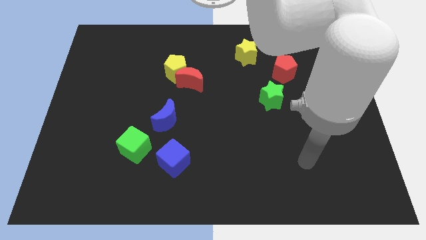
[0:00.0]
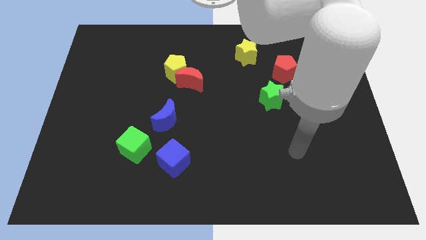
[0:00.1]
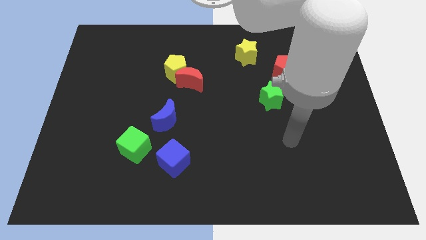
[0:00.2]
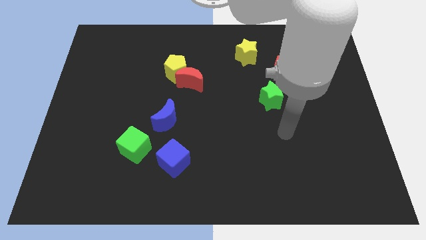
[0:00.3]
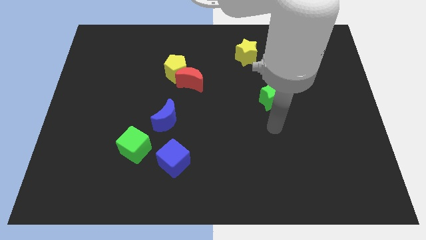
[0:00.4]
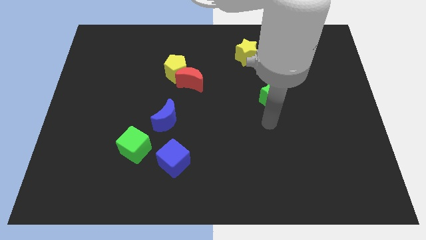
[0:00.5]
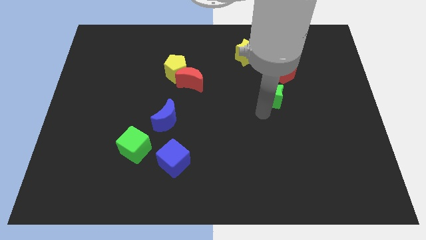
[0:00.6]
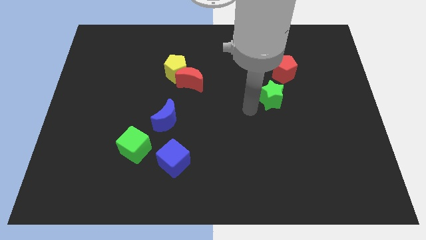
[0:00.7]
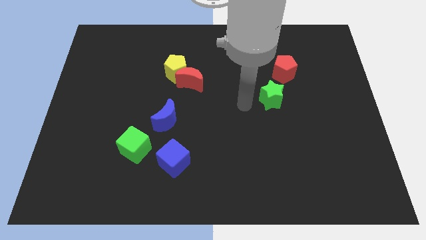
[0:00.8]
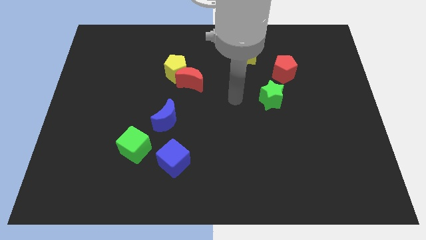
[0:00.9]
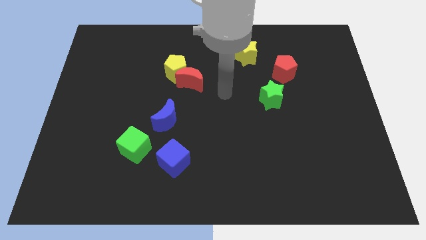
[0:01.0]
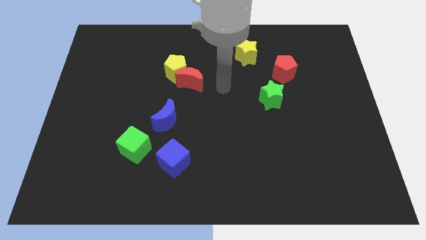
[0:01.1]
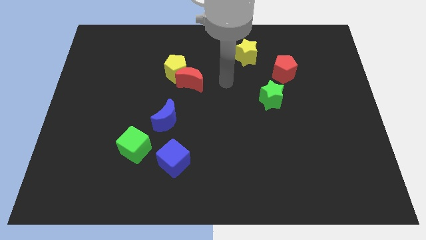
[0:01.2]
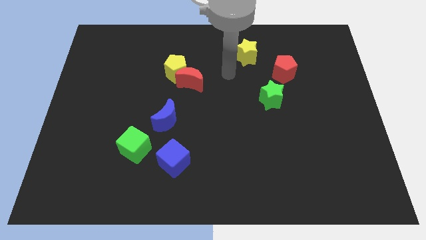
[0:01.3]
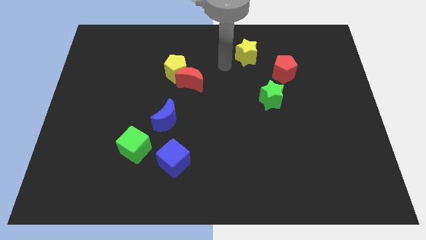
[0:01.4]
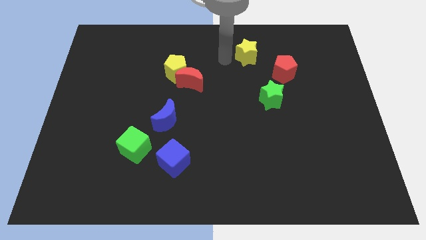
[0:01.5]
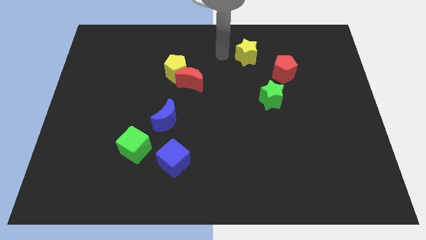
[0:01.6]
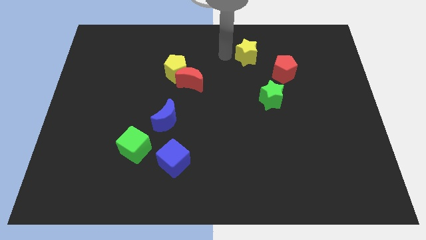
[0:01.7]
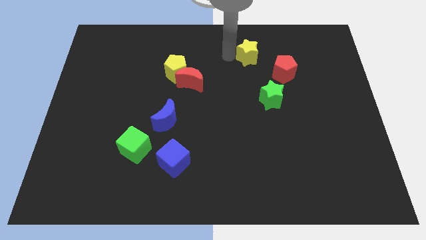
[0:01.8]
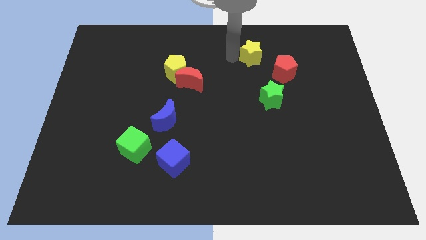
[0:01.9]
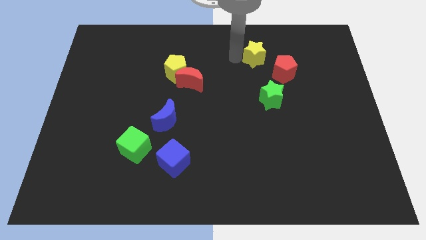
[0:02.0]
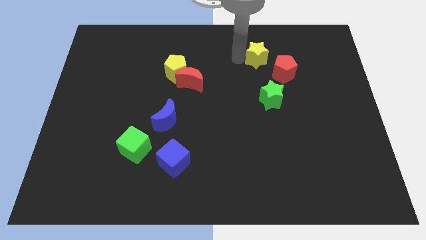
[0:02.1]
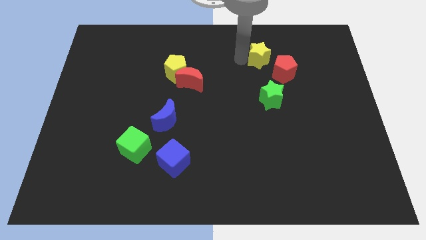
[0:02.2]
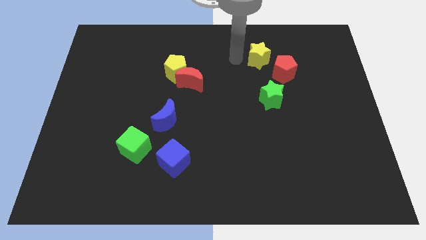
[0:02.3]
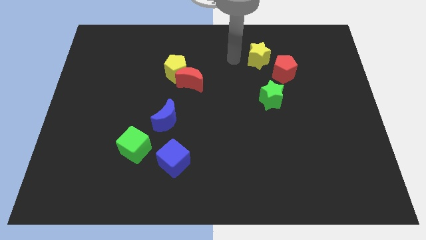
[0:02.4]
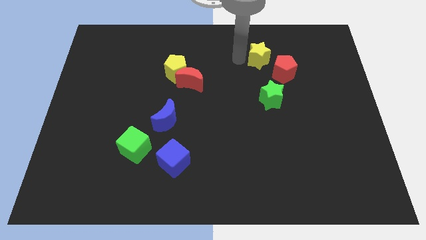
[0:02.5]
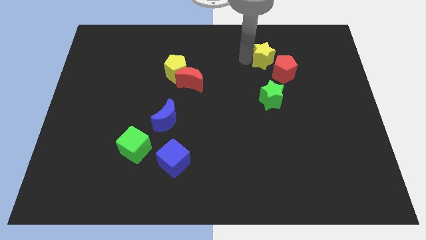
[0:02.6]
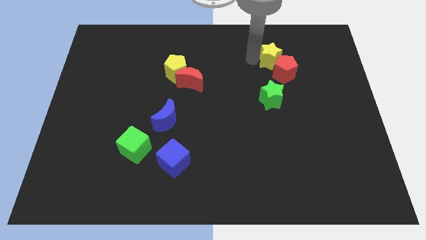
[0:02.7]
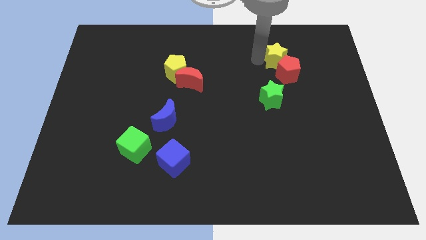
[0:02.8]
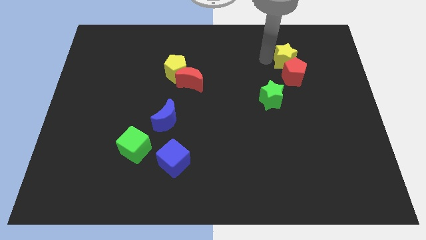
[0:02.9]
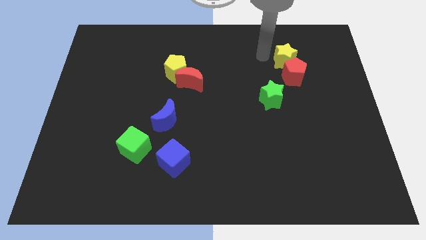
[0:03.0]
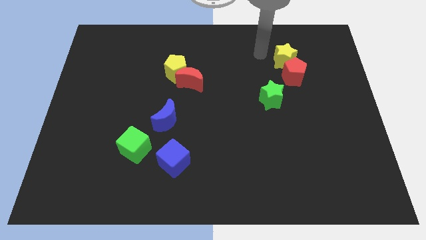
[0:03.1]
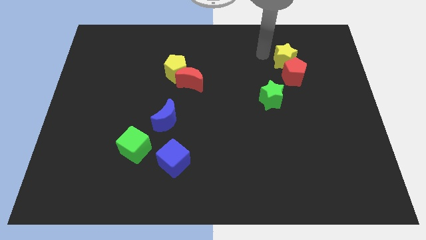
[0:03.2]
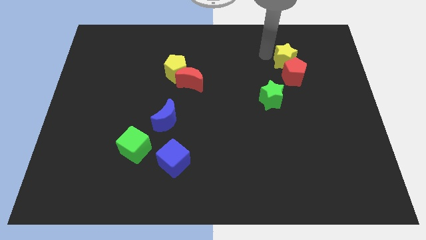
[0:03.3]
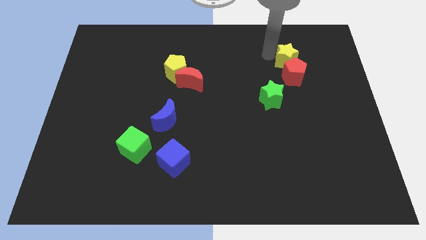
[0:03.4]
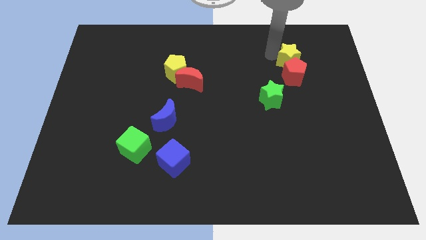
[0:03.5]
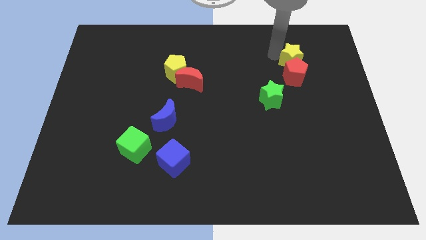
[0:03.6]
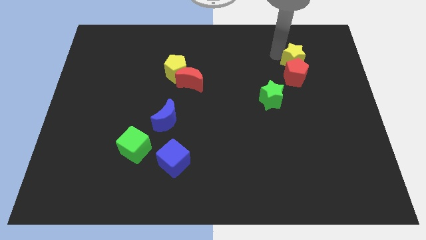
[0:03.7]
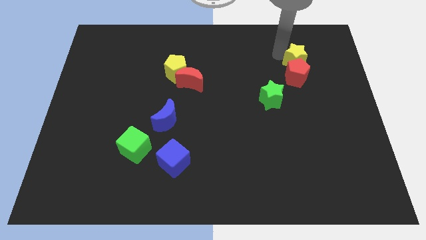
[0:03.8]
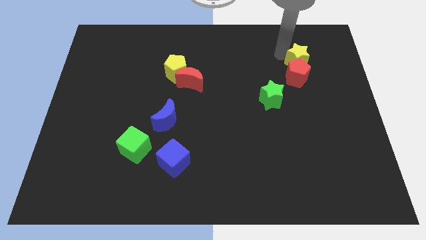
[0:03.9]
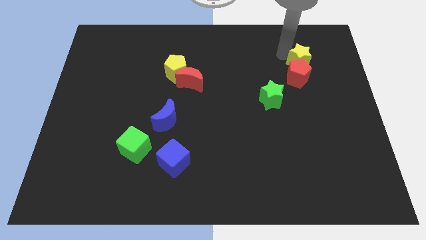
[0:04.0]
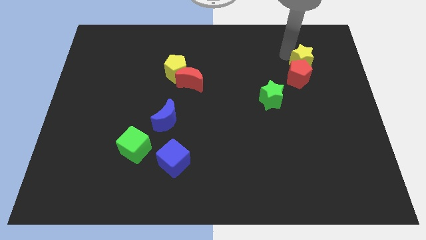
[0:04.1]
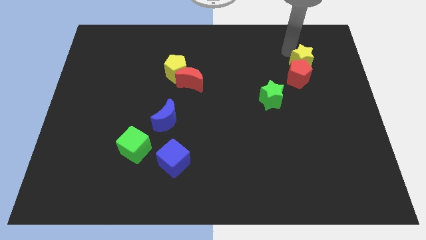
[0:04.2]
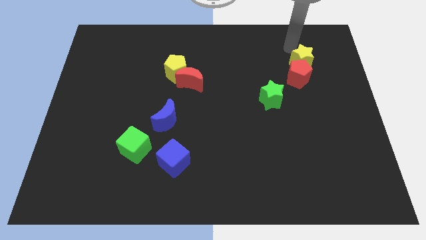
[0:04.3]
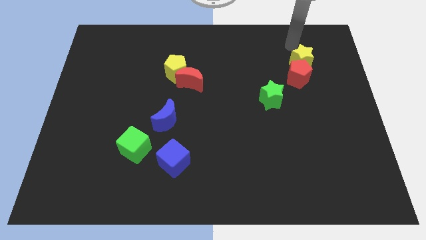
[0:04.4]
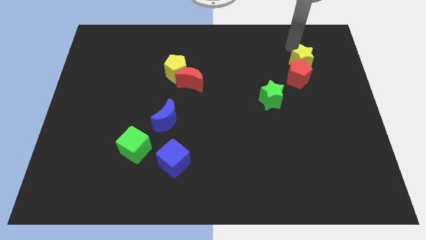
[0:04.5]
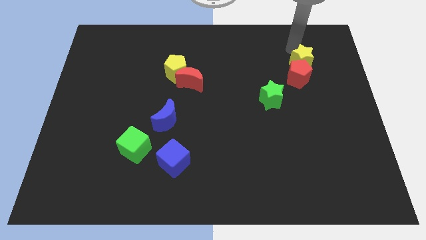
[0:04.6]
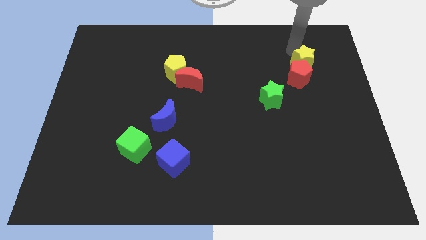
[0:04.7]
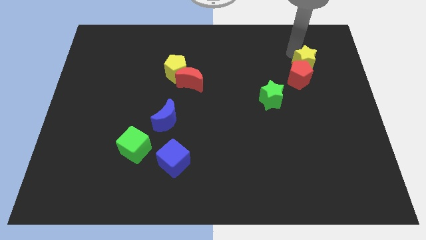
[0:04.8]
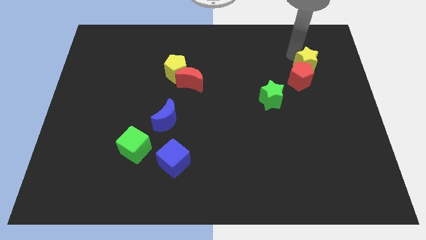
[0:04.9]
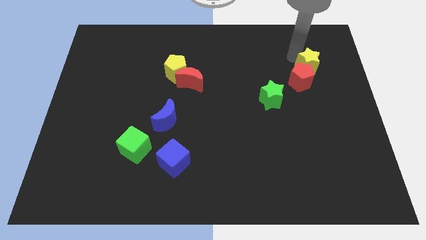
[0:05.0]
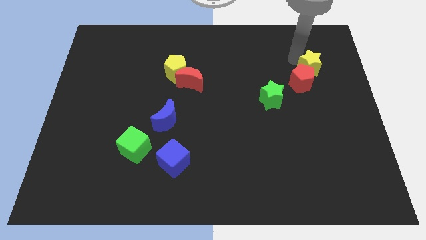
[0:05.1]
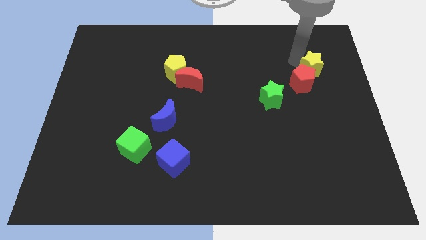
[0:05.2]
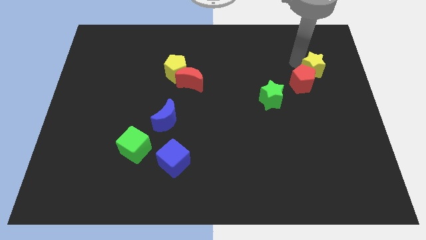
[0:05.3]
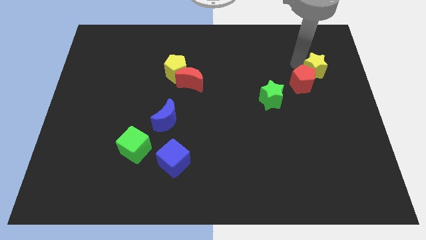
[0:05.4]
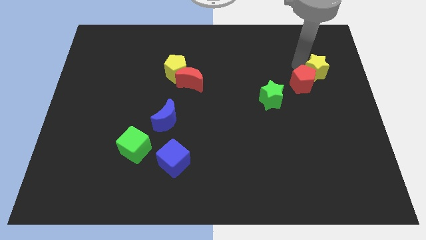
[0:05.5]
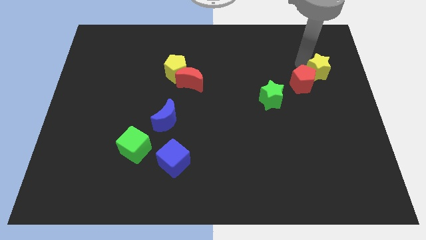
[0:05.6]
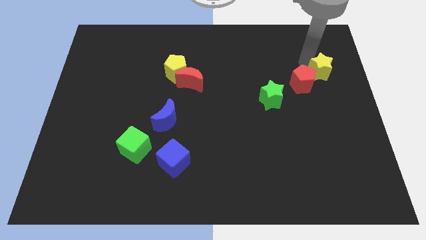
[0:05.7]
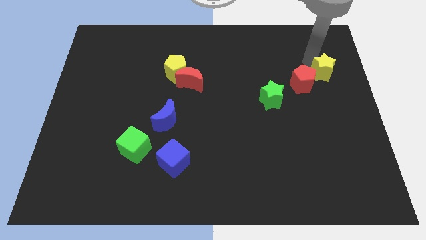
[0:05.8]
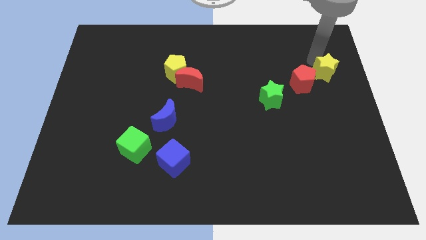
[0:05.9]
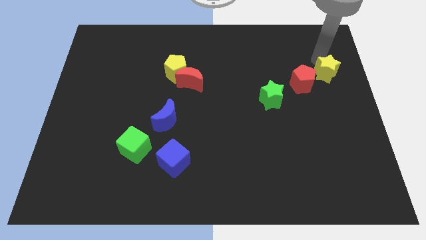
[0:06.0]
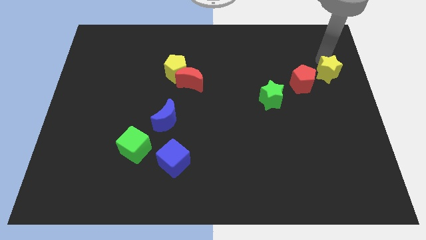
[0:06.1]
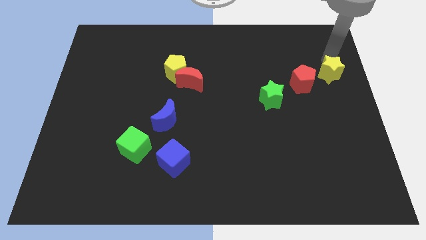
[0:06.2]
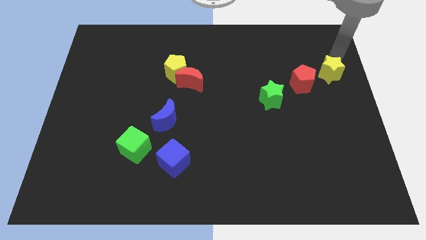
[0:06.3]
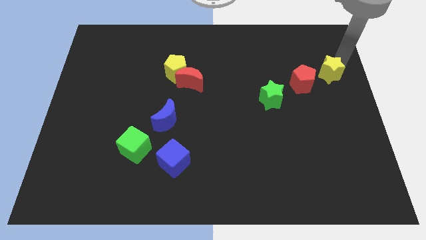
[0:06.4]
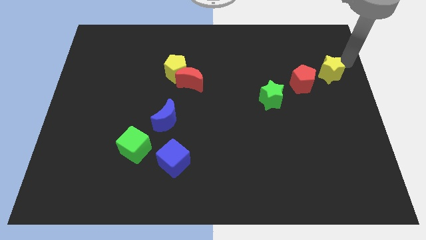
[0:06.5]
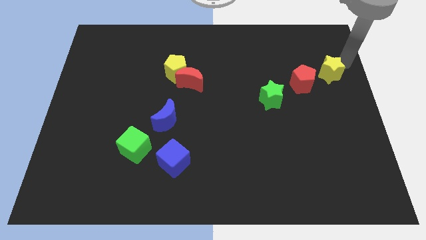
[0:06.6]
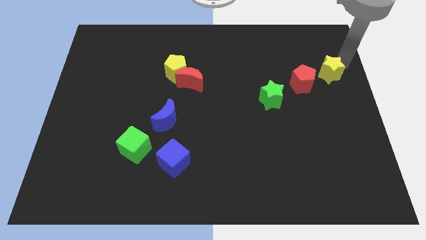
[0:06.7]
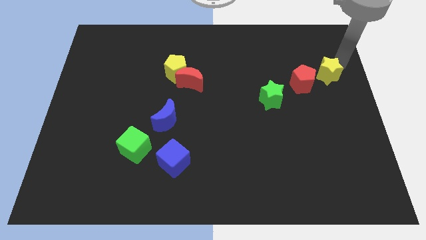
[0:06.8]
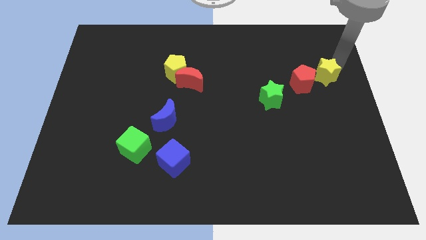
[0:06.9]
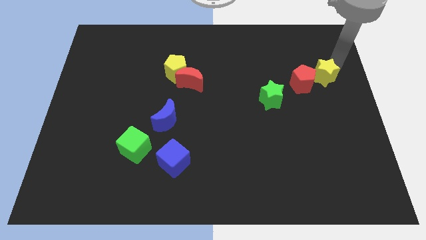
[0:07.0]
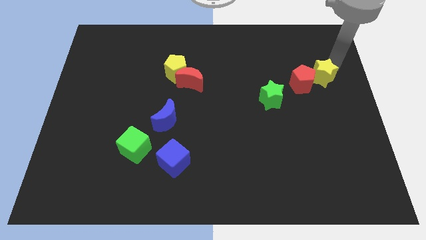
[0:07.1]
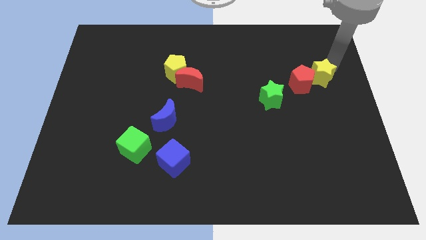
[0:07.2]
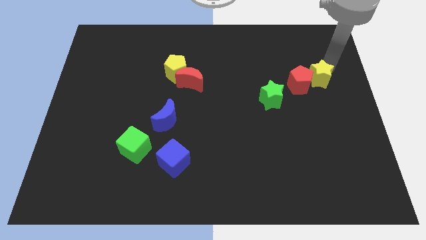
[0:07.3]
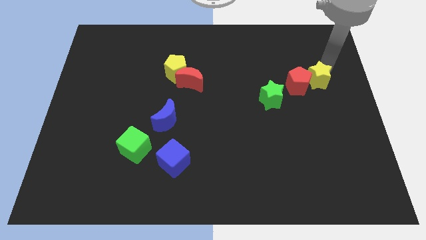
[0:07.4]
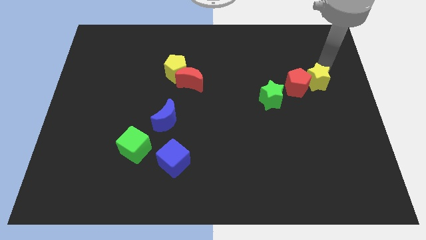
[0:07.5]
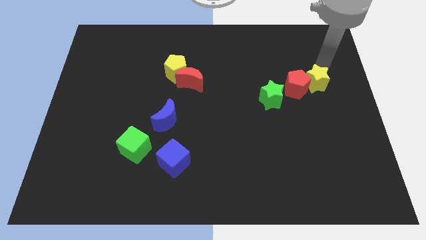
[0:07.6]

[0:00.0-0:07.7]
move the yellow star to the right side of the green star

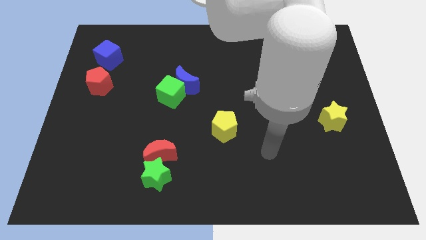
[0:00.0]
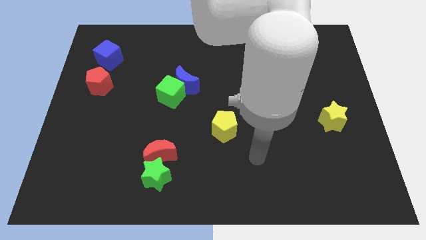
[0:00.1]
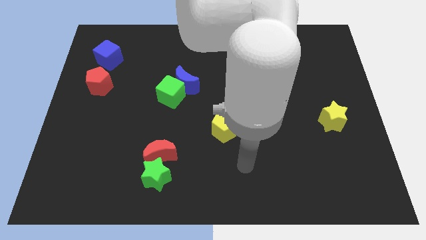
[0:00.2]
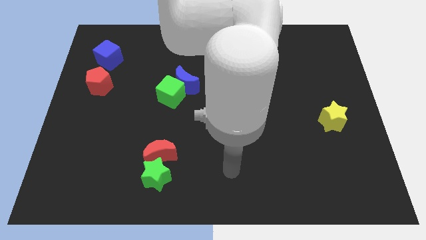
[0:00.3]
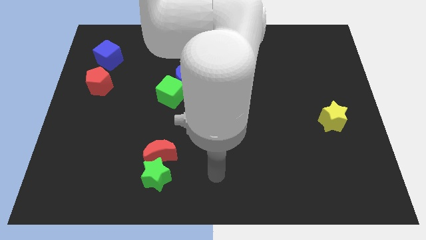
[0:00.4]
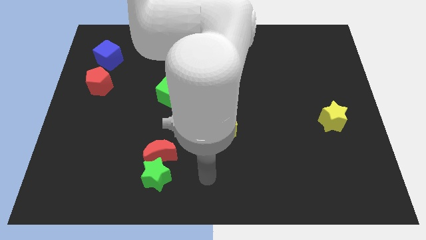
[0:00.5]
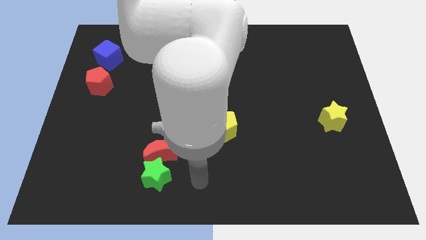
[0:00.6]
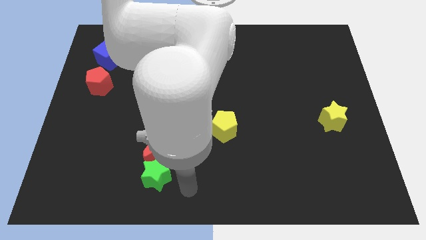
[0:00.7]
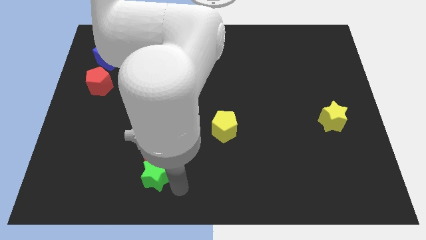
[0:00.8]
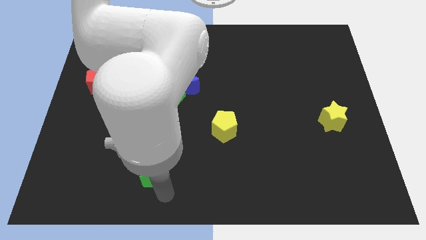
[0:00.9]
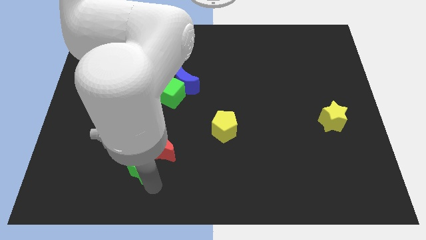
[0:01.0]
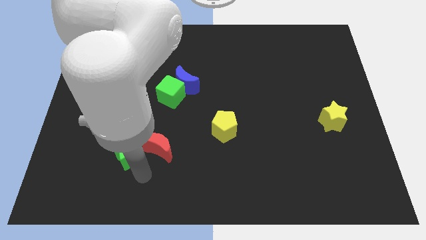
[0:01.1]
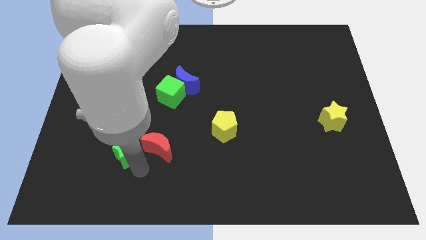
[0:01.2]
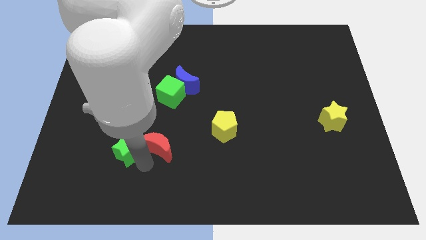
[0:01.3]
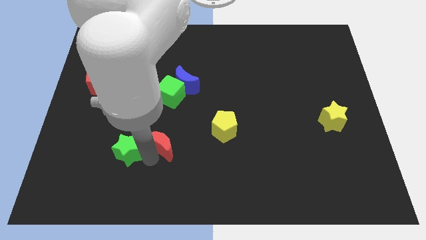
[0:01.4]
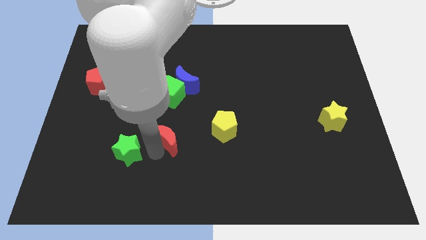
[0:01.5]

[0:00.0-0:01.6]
move the red moon to the left side of the yellow pentagon
